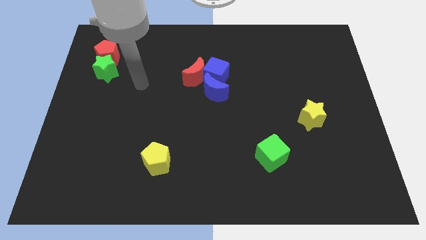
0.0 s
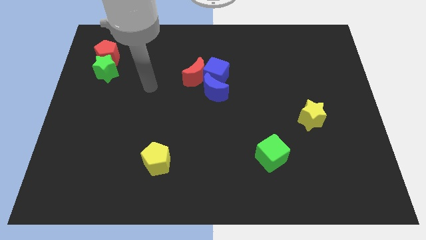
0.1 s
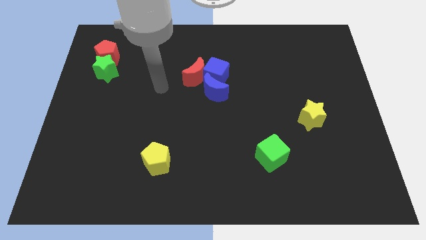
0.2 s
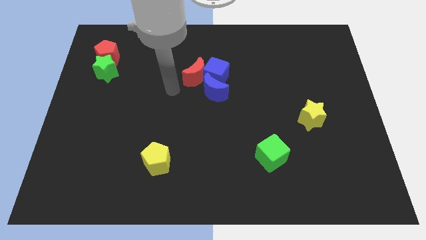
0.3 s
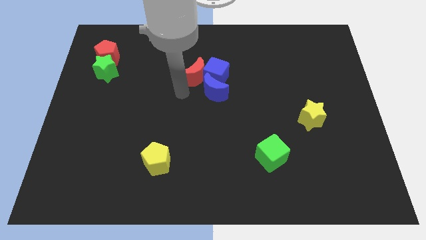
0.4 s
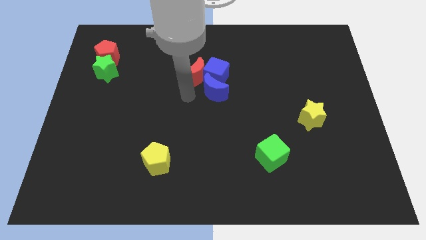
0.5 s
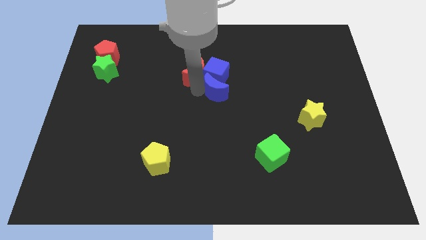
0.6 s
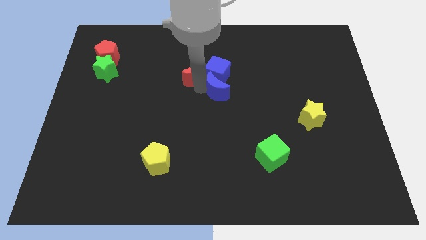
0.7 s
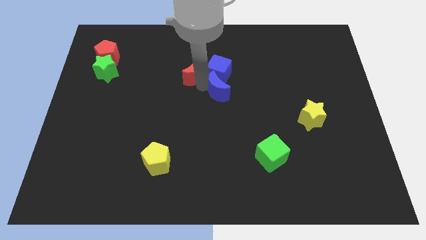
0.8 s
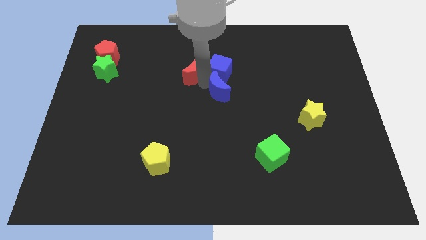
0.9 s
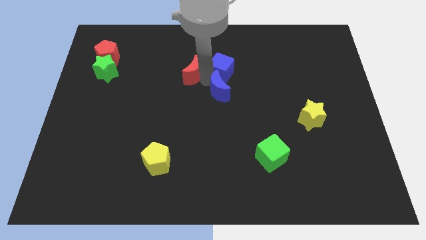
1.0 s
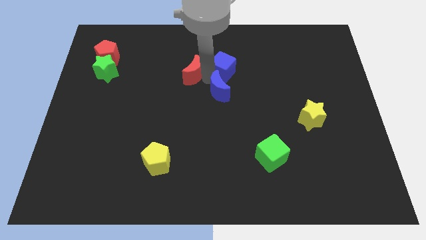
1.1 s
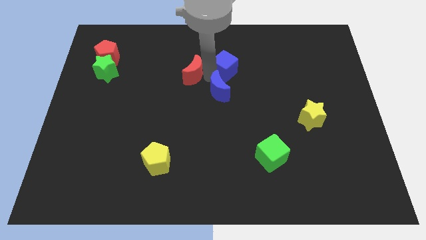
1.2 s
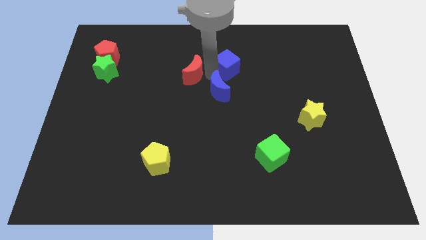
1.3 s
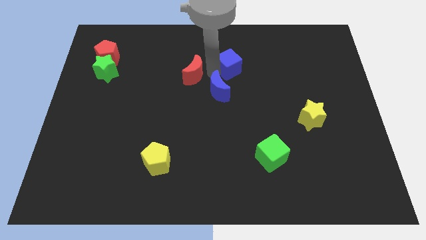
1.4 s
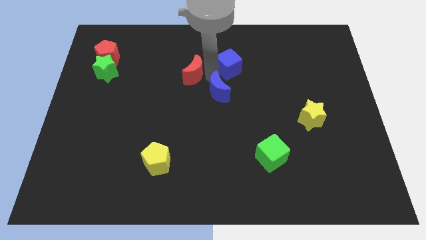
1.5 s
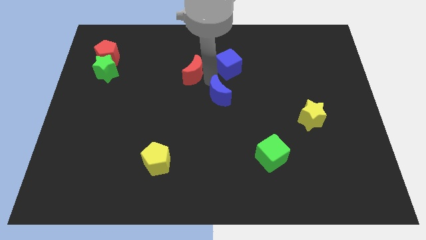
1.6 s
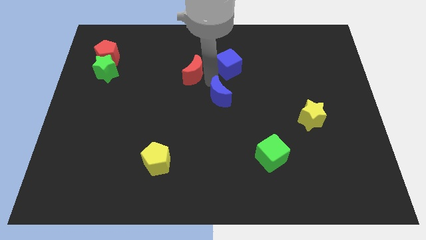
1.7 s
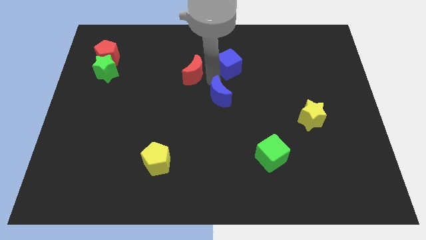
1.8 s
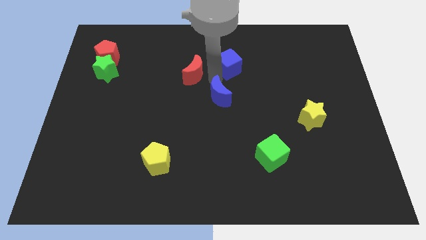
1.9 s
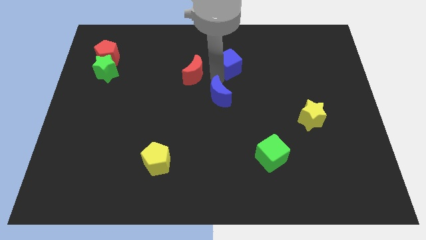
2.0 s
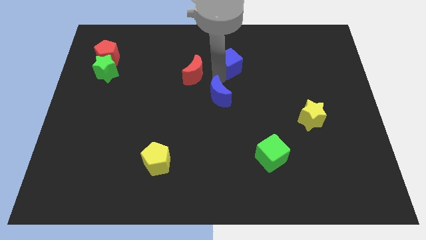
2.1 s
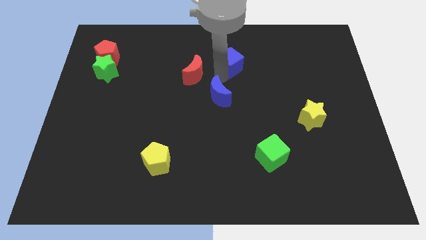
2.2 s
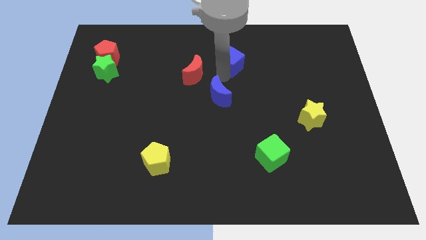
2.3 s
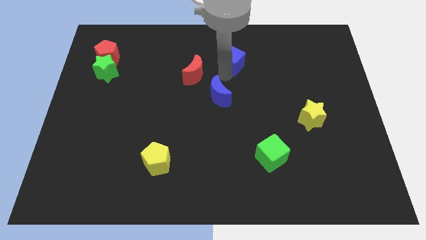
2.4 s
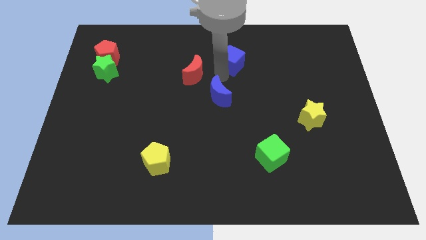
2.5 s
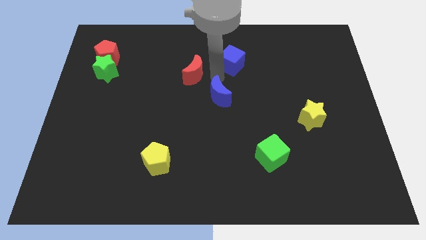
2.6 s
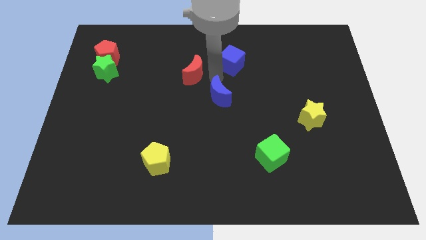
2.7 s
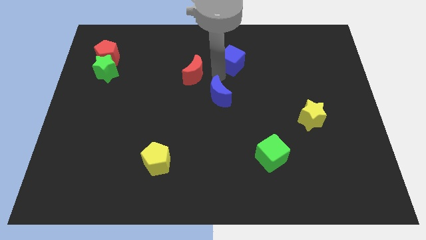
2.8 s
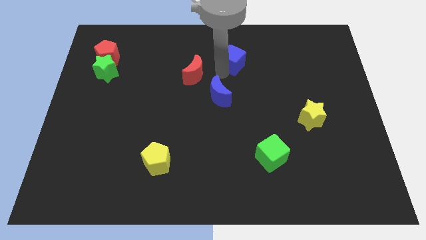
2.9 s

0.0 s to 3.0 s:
move the blue cube away from the red moon and blue moon

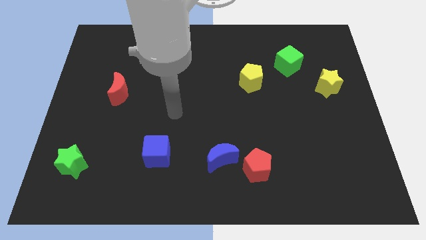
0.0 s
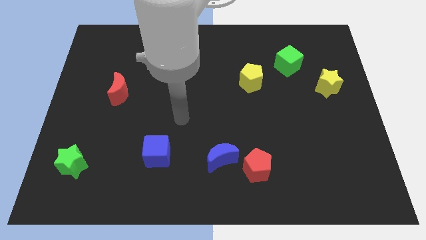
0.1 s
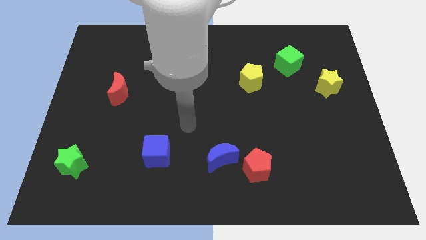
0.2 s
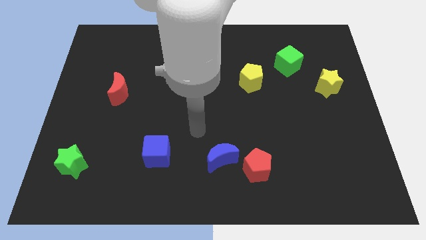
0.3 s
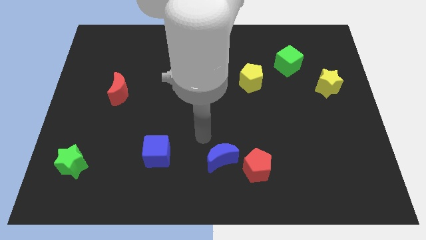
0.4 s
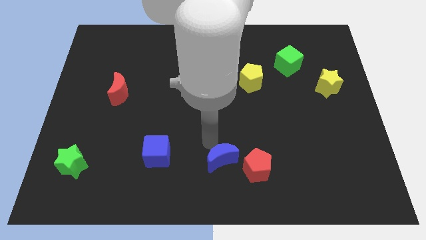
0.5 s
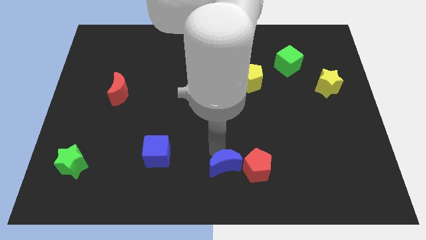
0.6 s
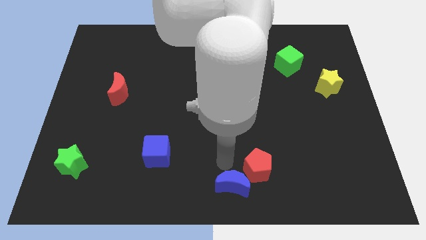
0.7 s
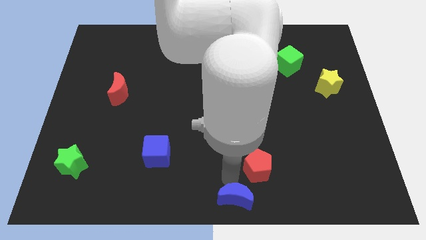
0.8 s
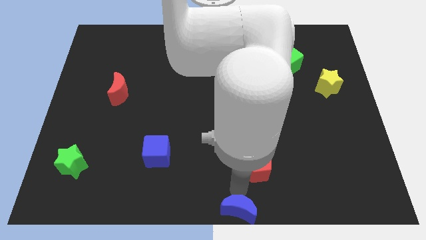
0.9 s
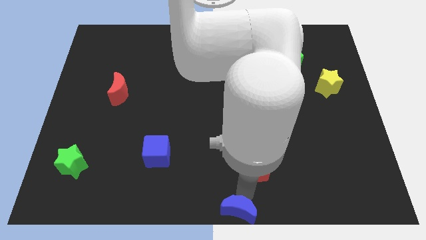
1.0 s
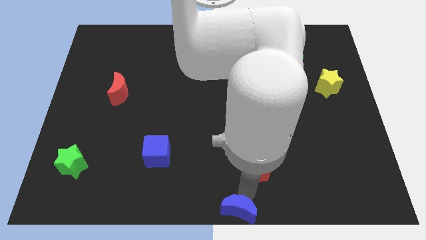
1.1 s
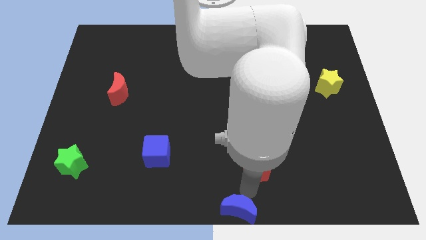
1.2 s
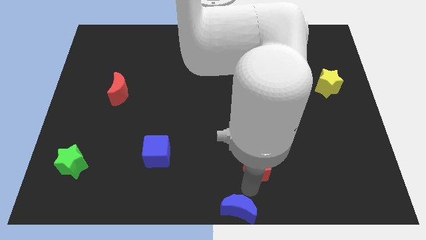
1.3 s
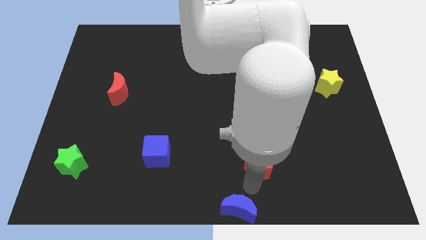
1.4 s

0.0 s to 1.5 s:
pull the red pentagon apart from the blue moon

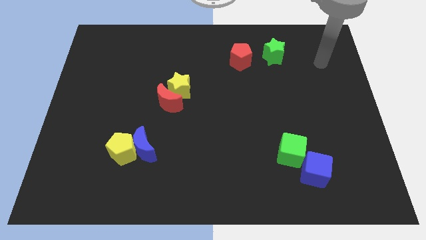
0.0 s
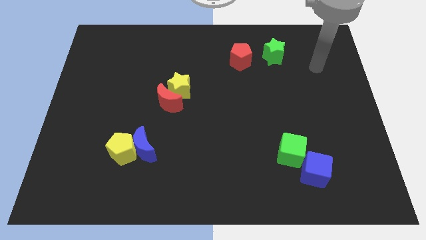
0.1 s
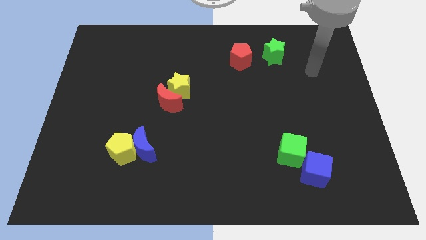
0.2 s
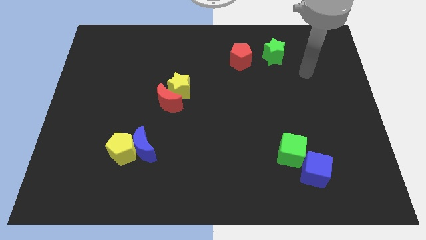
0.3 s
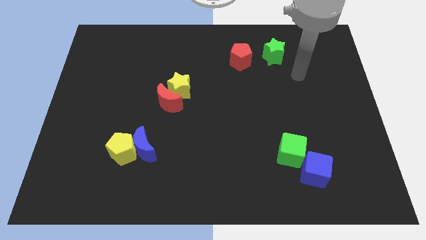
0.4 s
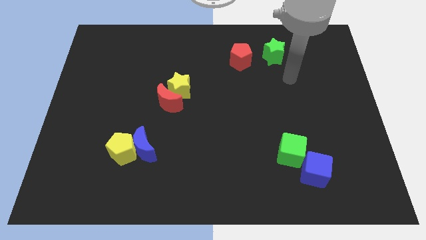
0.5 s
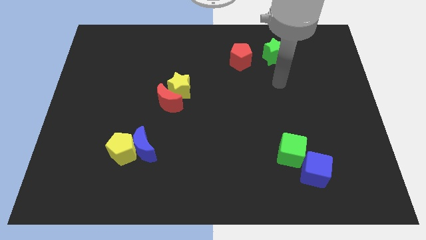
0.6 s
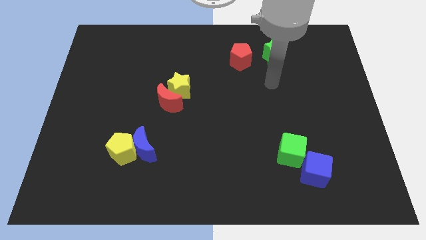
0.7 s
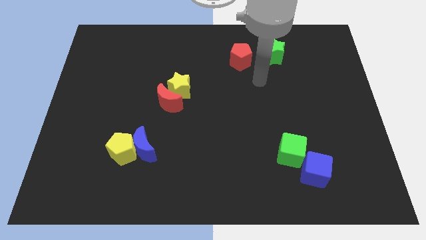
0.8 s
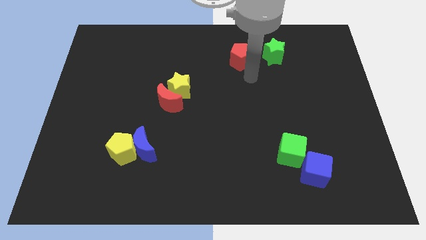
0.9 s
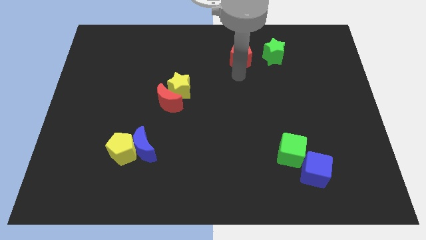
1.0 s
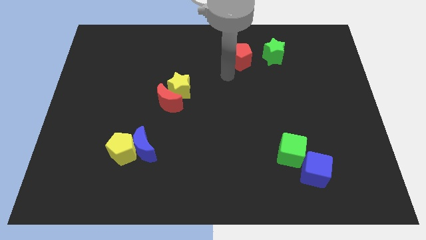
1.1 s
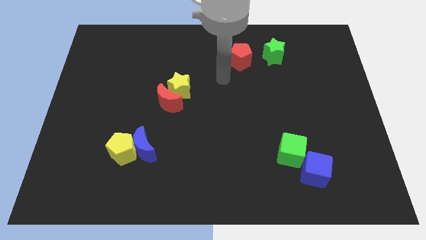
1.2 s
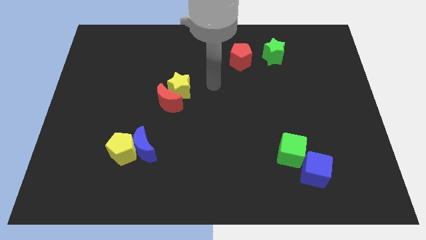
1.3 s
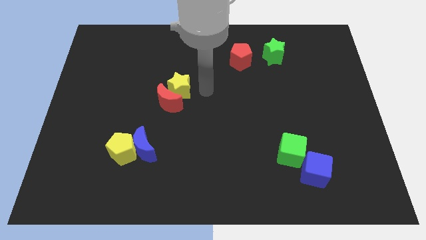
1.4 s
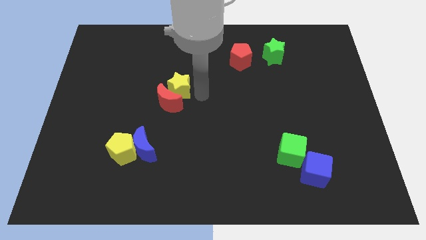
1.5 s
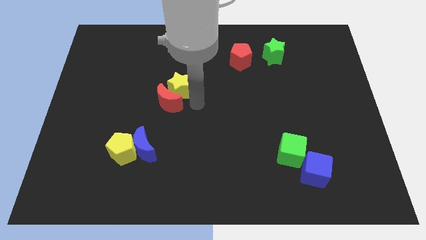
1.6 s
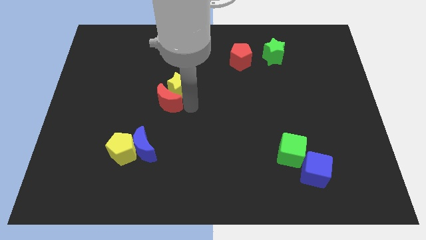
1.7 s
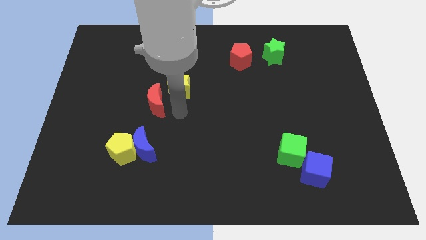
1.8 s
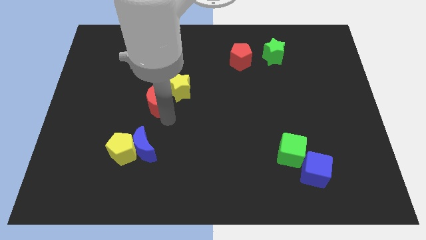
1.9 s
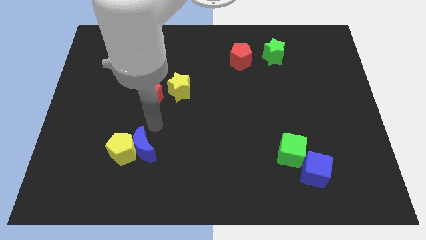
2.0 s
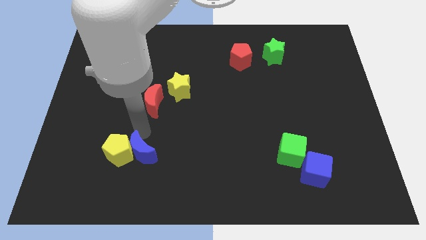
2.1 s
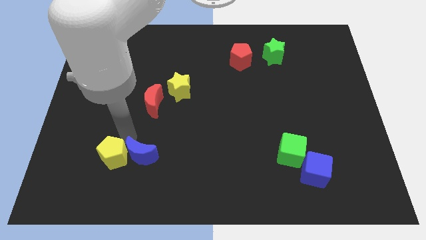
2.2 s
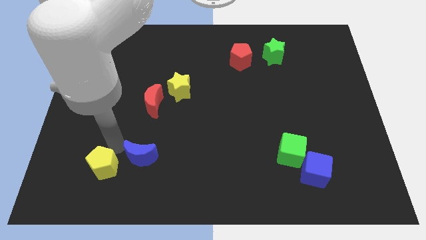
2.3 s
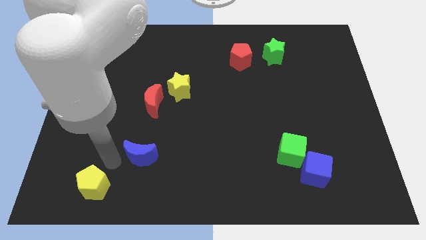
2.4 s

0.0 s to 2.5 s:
separate the blue moon from the yellow pentagon

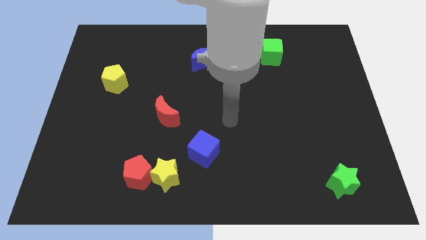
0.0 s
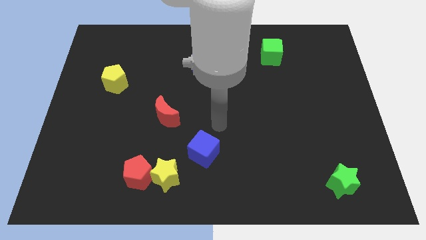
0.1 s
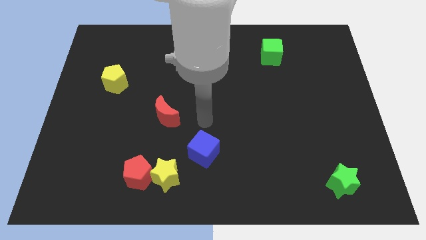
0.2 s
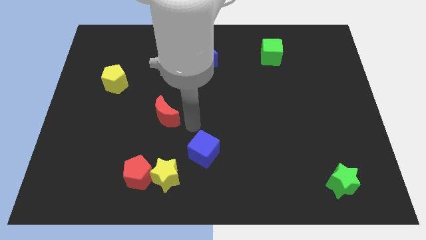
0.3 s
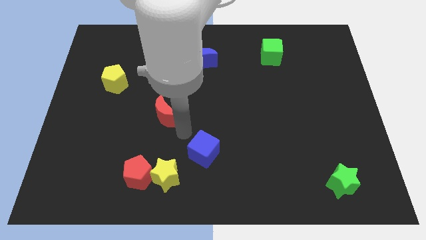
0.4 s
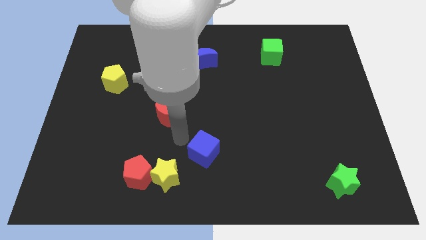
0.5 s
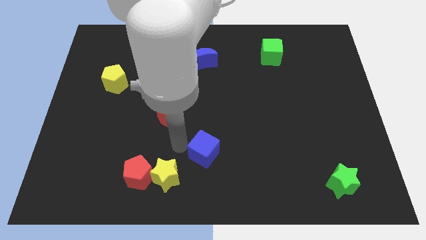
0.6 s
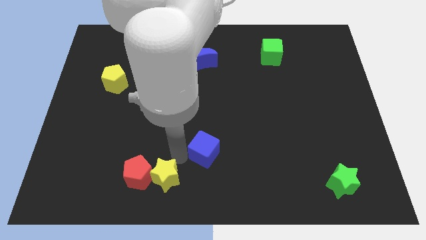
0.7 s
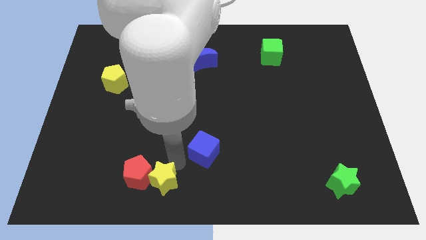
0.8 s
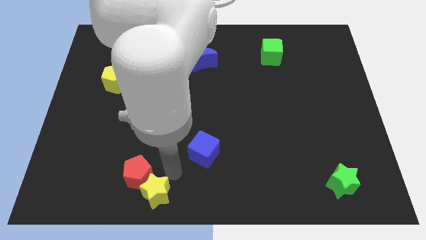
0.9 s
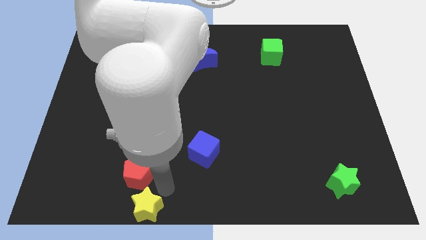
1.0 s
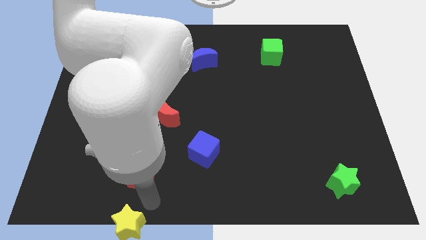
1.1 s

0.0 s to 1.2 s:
pull the red pentagon apart from the yellow star

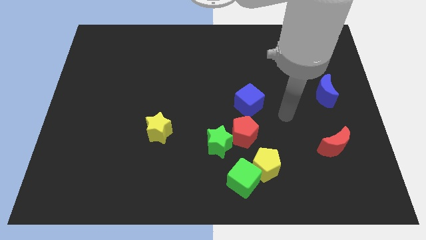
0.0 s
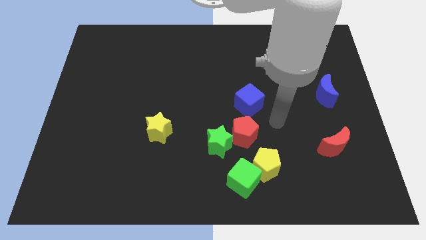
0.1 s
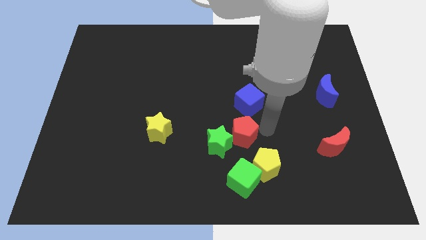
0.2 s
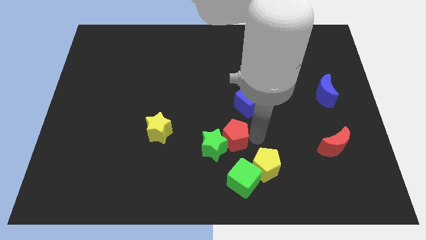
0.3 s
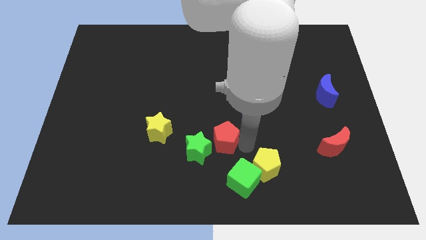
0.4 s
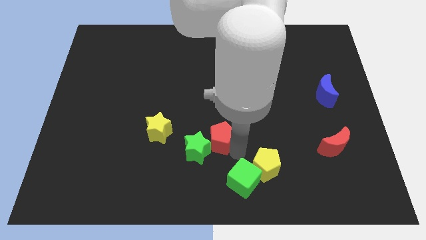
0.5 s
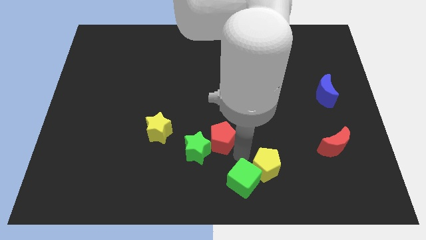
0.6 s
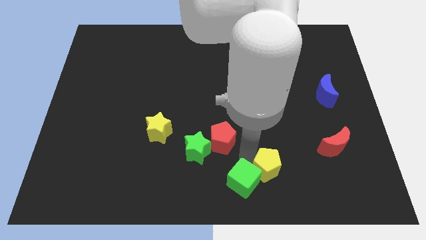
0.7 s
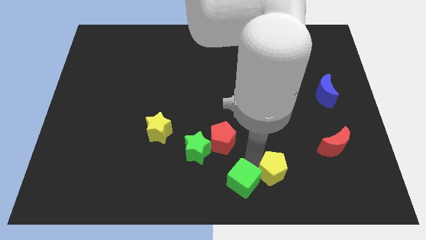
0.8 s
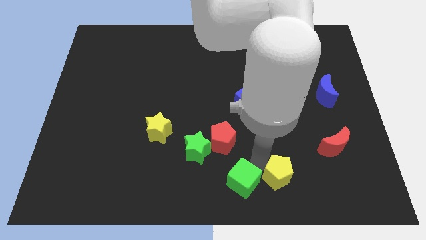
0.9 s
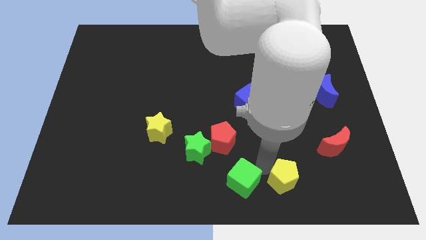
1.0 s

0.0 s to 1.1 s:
separate the yellow pentagon from the green cube and red pentagon

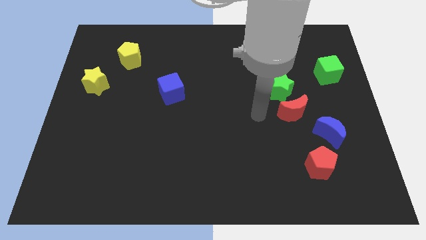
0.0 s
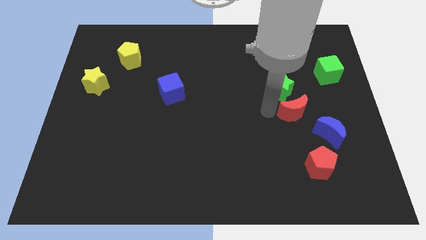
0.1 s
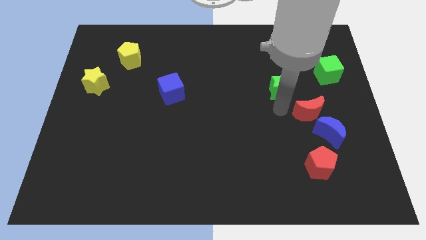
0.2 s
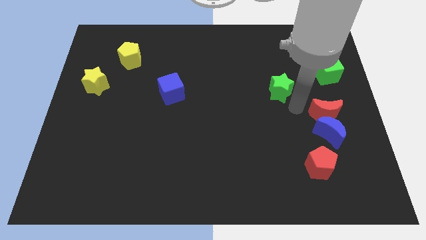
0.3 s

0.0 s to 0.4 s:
separate the green star from the red moon
